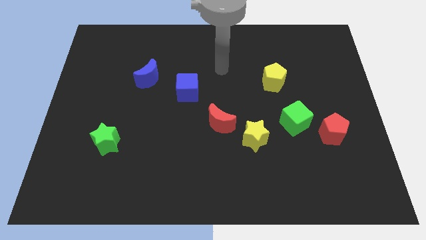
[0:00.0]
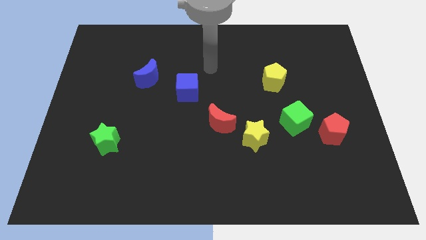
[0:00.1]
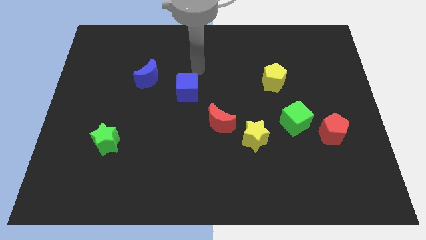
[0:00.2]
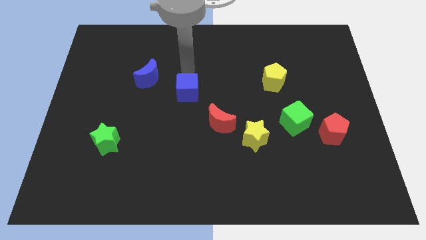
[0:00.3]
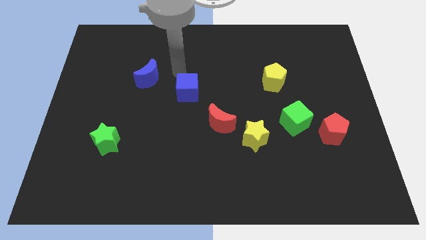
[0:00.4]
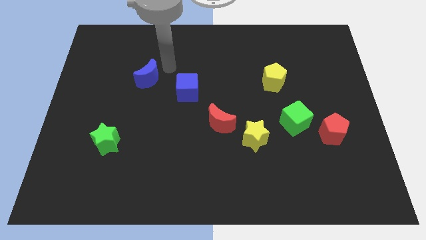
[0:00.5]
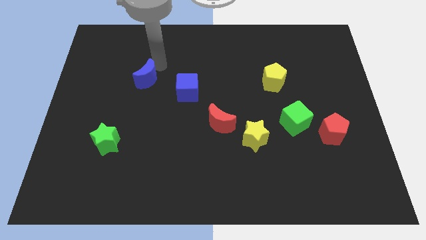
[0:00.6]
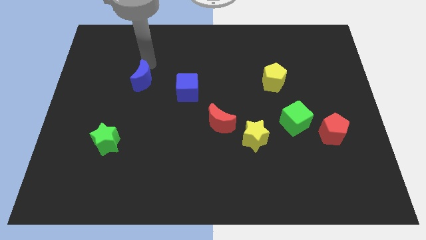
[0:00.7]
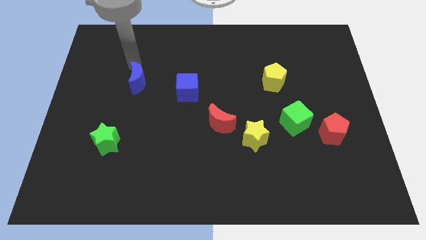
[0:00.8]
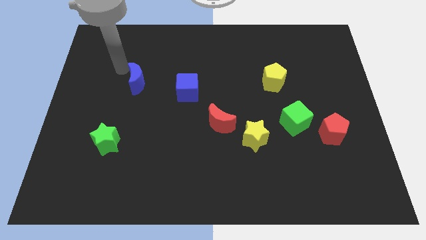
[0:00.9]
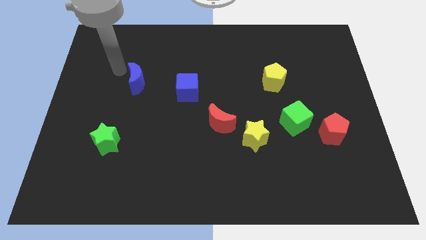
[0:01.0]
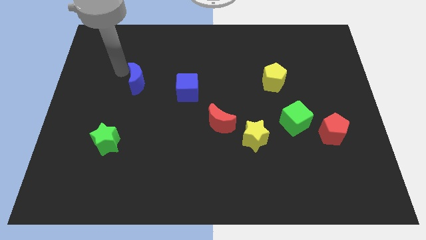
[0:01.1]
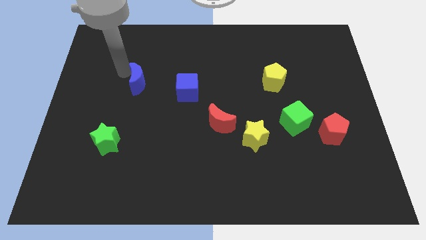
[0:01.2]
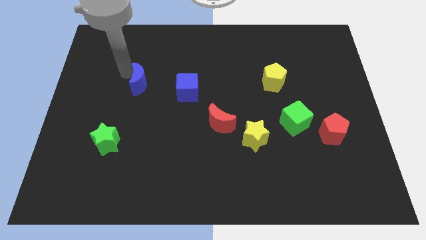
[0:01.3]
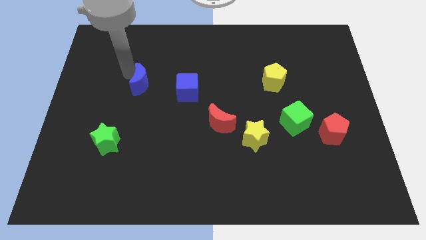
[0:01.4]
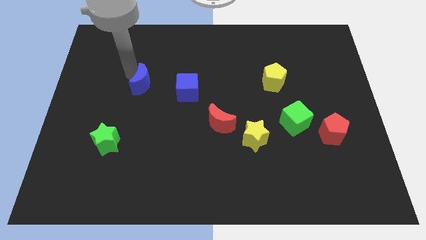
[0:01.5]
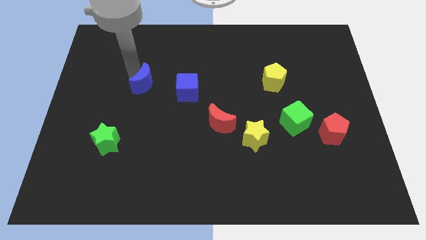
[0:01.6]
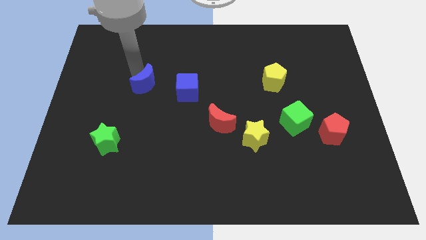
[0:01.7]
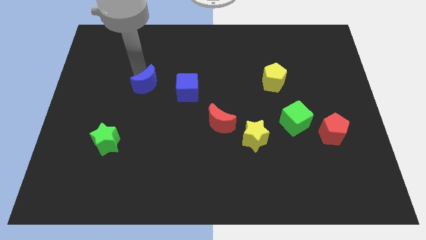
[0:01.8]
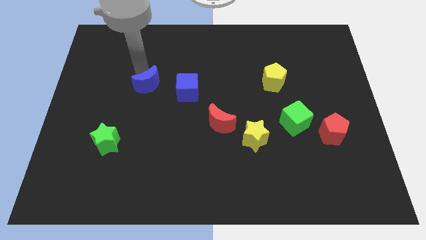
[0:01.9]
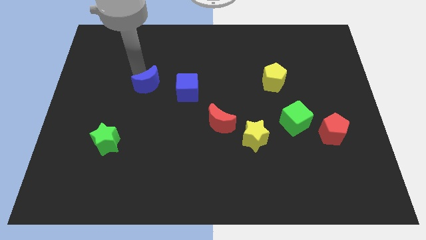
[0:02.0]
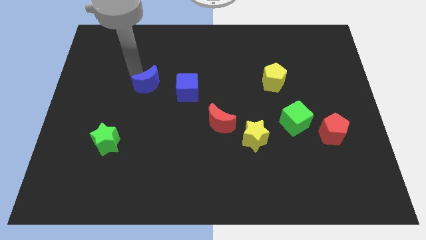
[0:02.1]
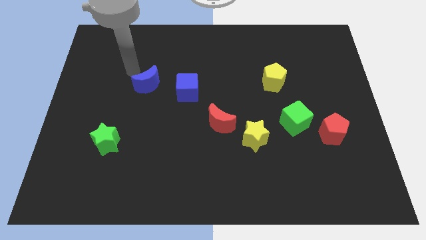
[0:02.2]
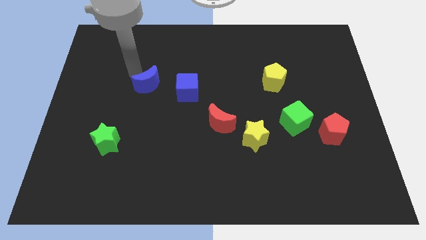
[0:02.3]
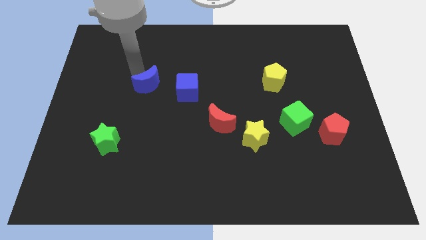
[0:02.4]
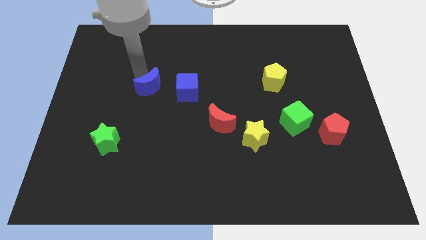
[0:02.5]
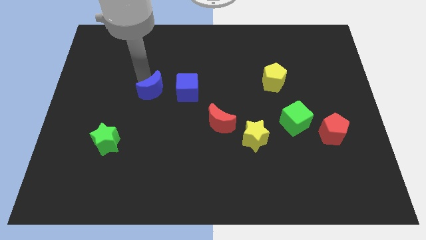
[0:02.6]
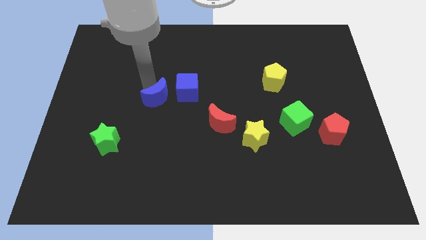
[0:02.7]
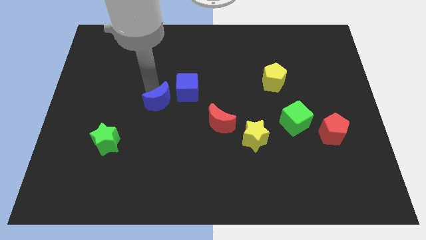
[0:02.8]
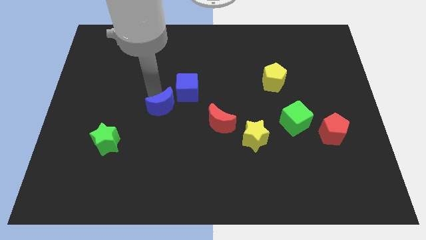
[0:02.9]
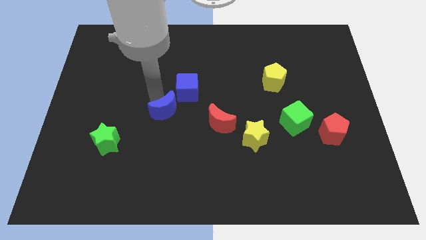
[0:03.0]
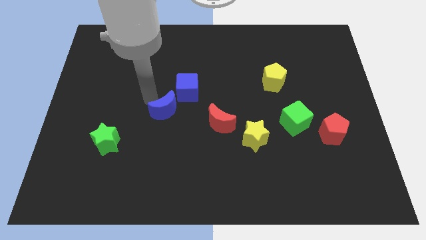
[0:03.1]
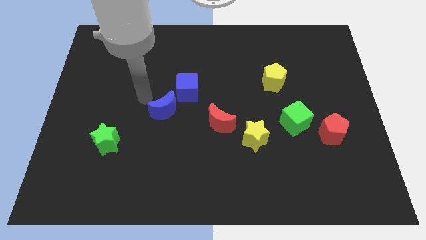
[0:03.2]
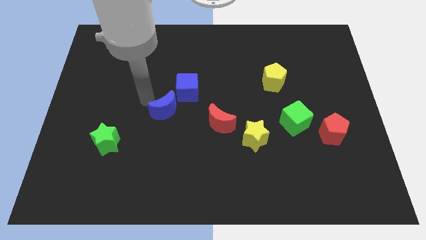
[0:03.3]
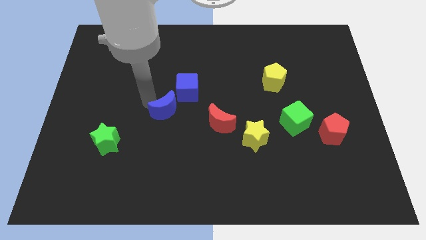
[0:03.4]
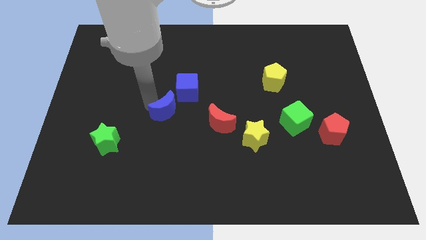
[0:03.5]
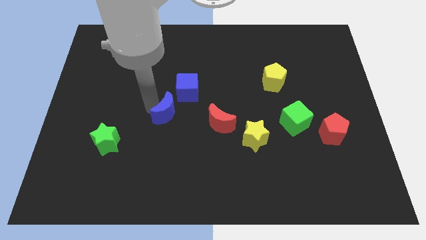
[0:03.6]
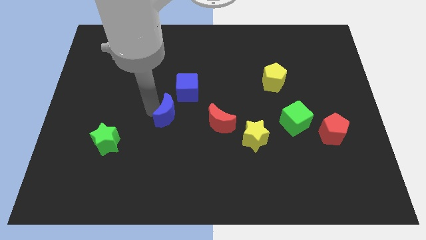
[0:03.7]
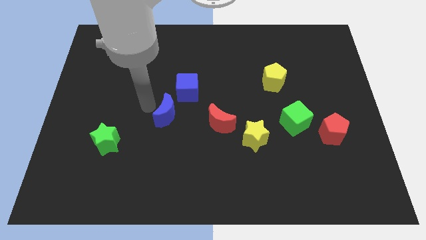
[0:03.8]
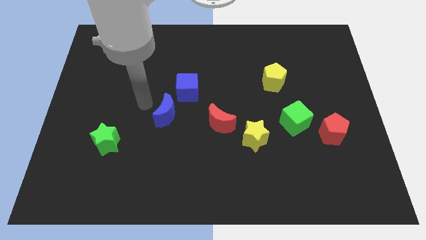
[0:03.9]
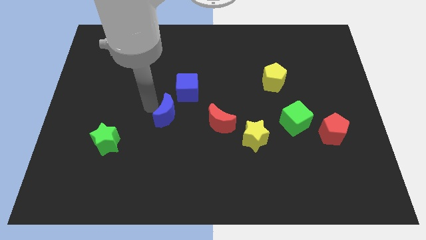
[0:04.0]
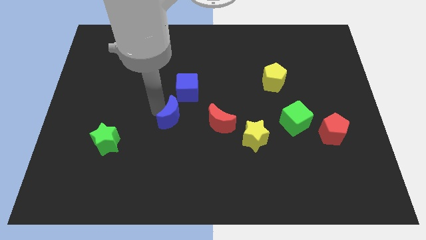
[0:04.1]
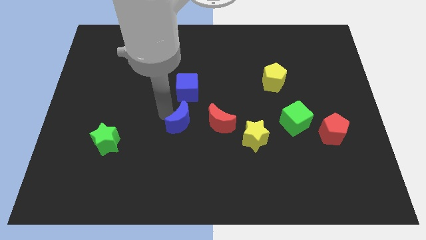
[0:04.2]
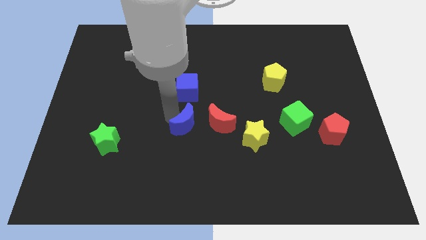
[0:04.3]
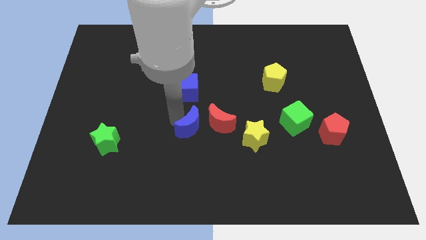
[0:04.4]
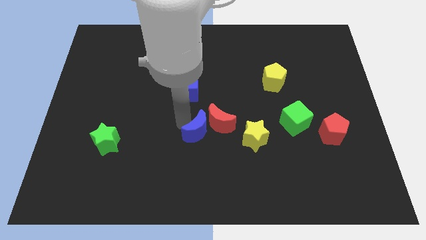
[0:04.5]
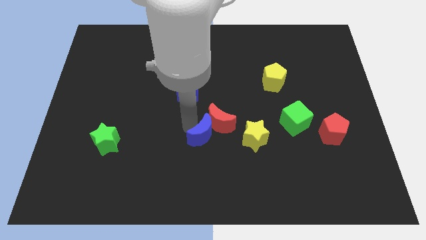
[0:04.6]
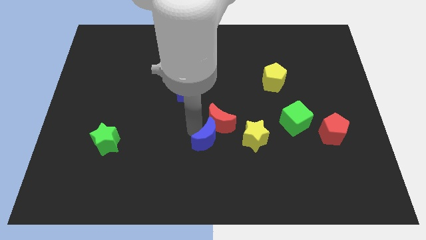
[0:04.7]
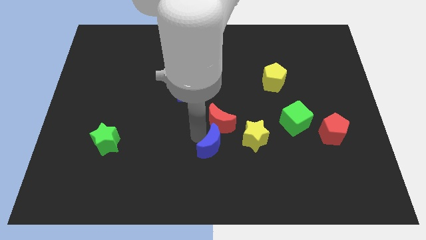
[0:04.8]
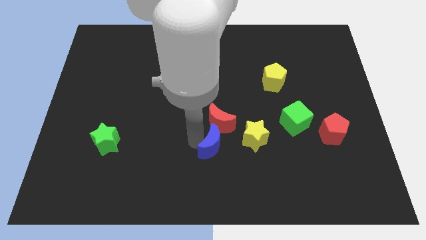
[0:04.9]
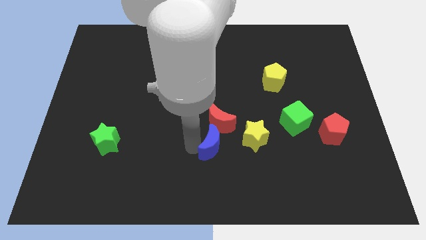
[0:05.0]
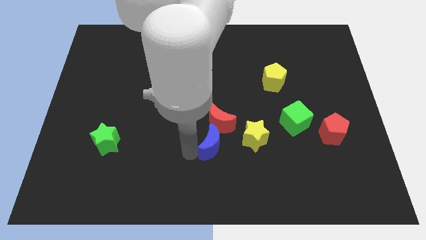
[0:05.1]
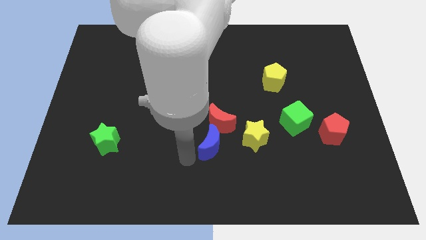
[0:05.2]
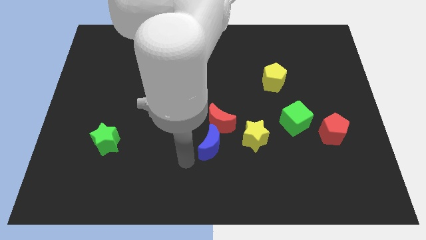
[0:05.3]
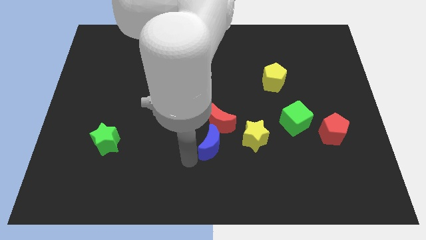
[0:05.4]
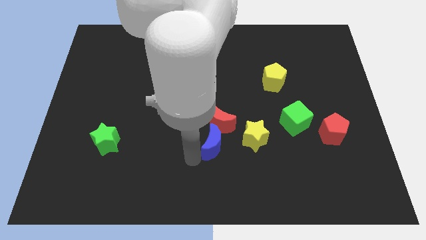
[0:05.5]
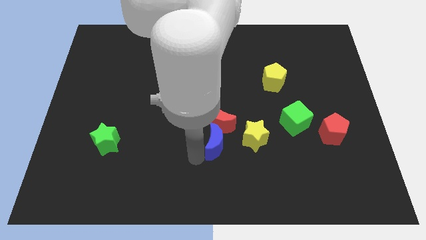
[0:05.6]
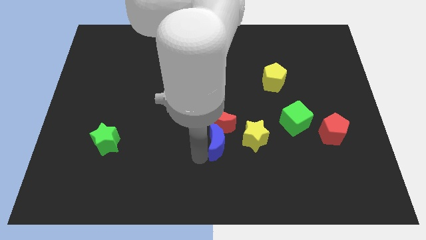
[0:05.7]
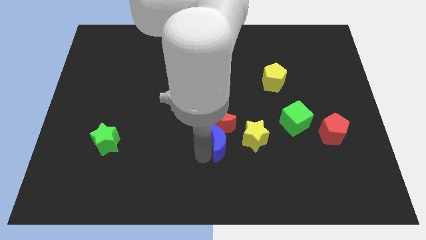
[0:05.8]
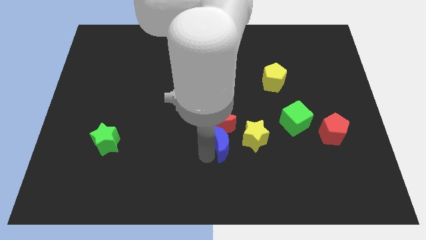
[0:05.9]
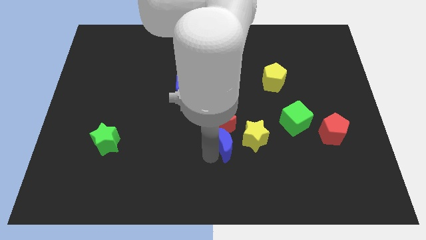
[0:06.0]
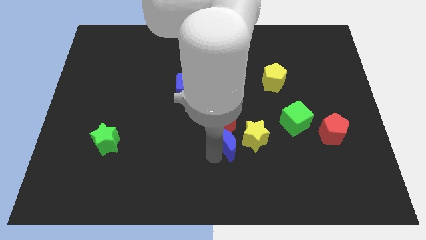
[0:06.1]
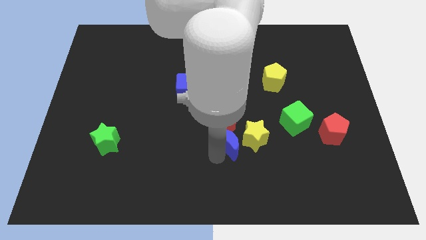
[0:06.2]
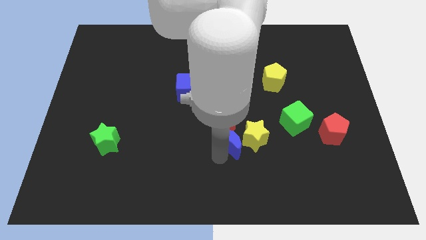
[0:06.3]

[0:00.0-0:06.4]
put the blue moon next to the yellow star
